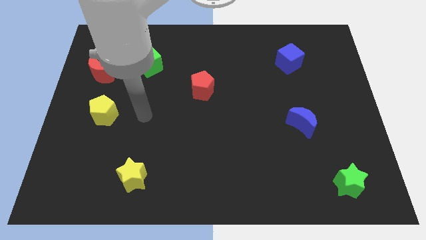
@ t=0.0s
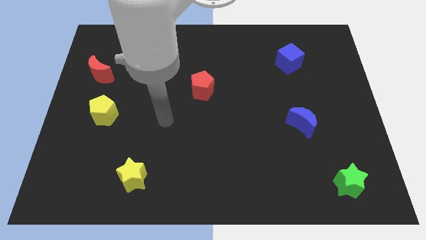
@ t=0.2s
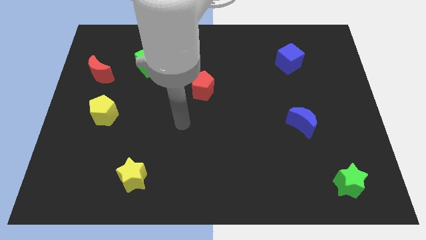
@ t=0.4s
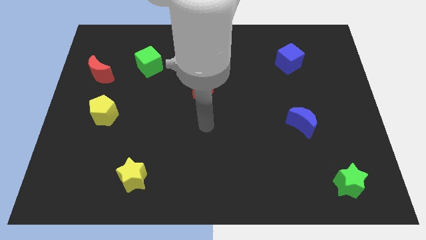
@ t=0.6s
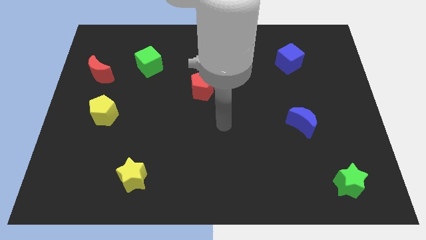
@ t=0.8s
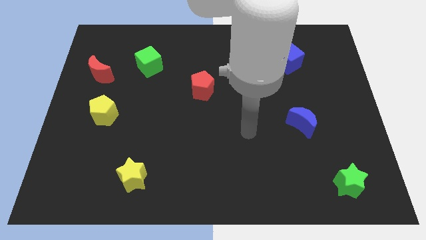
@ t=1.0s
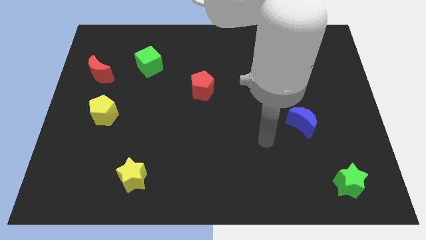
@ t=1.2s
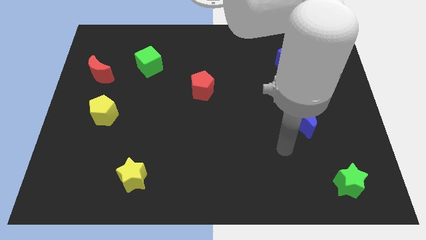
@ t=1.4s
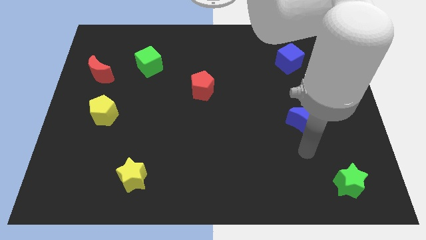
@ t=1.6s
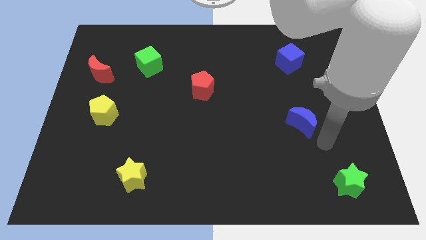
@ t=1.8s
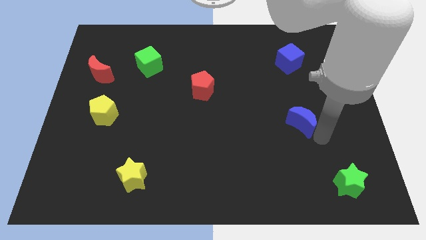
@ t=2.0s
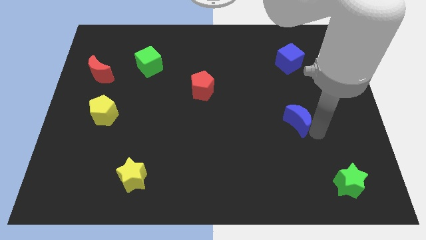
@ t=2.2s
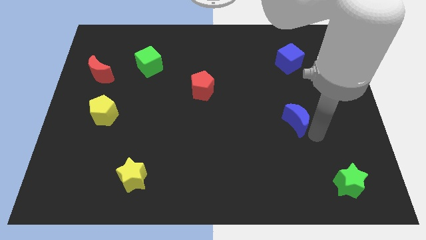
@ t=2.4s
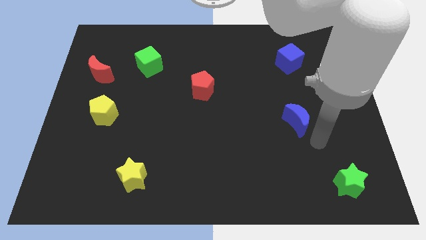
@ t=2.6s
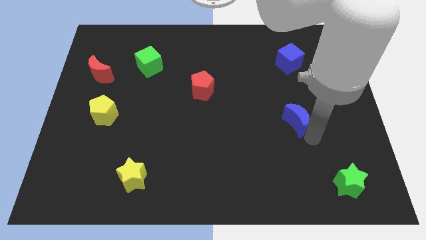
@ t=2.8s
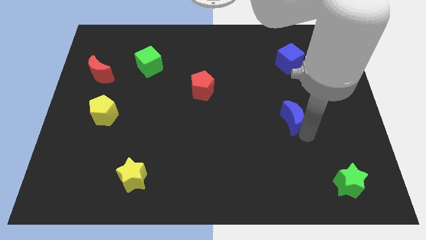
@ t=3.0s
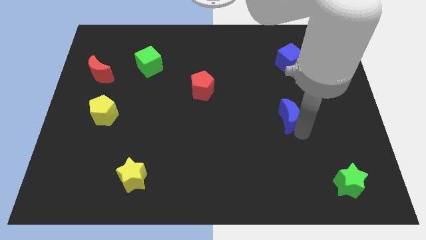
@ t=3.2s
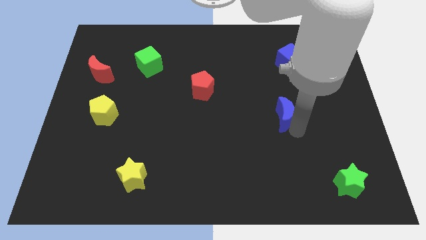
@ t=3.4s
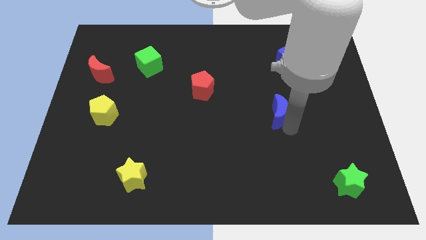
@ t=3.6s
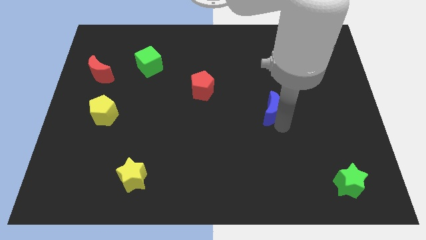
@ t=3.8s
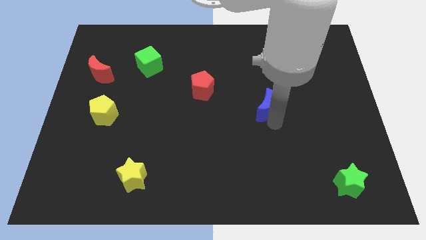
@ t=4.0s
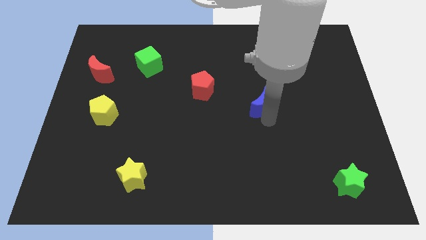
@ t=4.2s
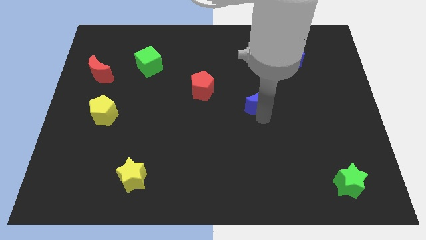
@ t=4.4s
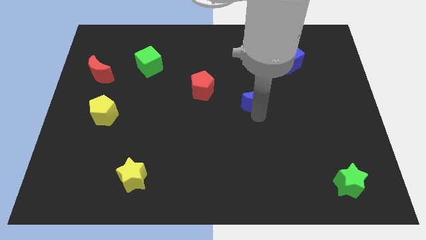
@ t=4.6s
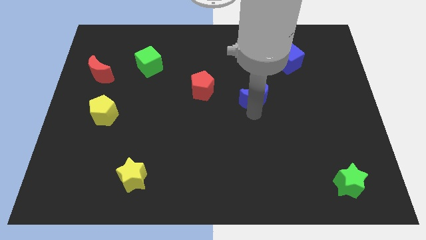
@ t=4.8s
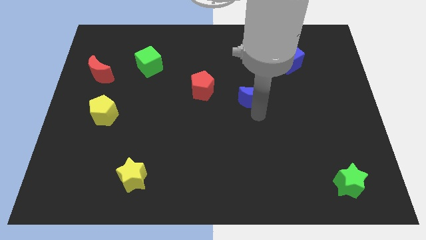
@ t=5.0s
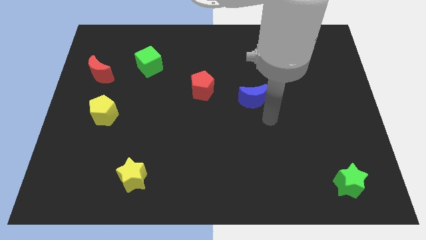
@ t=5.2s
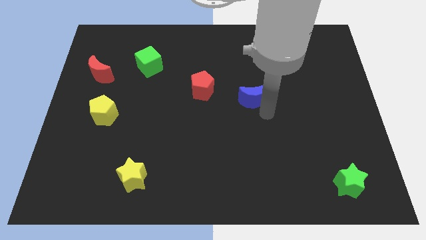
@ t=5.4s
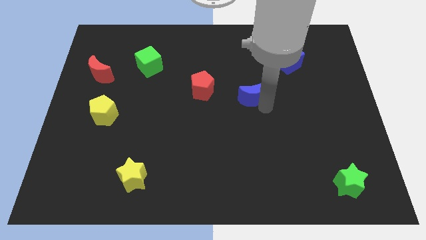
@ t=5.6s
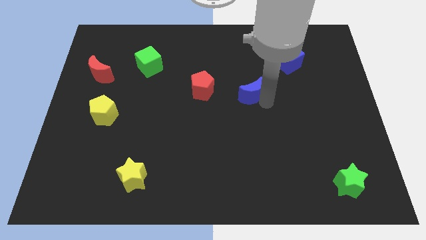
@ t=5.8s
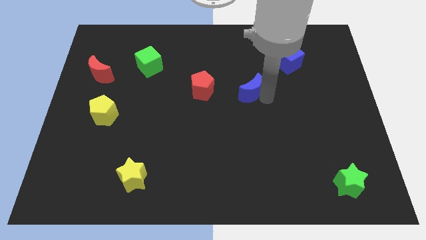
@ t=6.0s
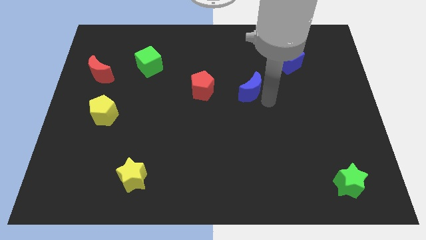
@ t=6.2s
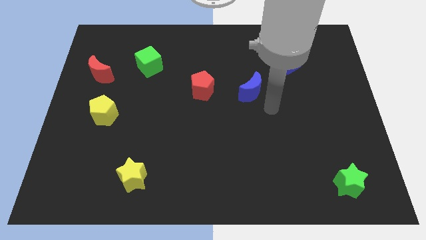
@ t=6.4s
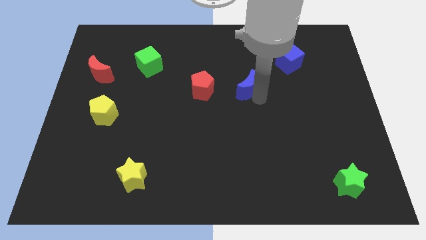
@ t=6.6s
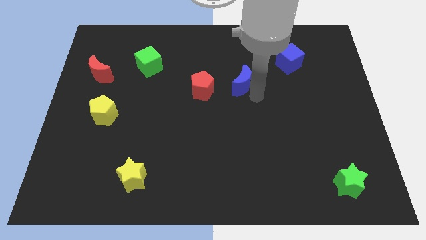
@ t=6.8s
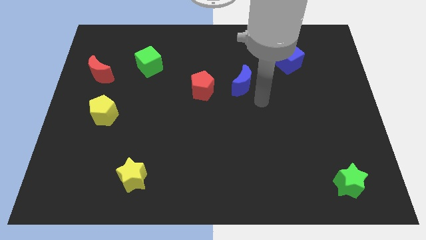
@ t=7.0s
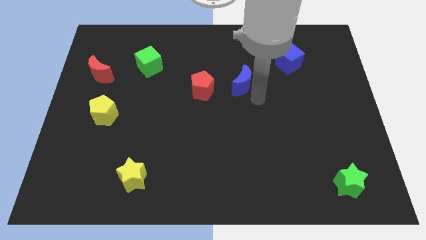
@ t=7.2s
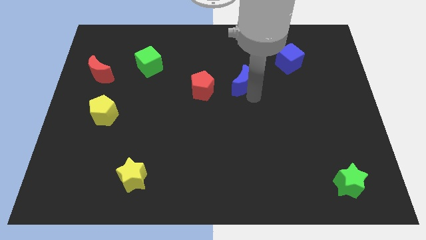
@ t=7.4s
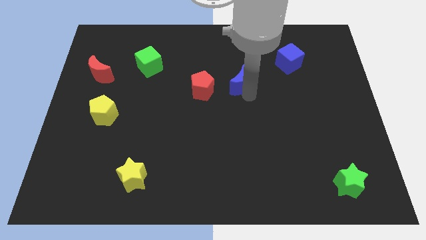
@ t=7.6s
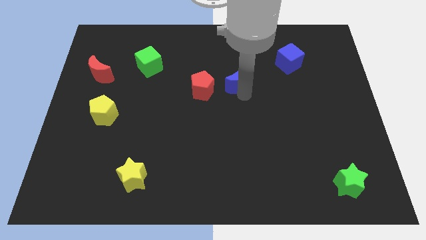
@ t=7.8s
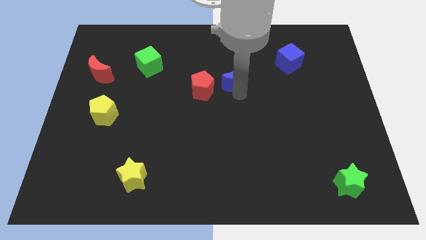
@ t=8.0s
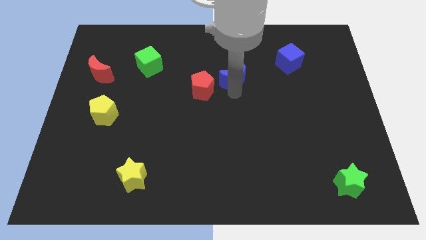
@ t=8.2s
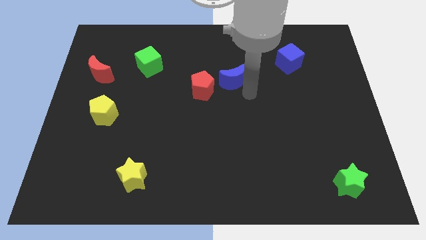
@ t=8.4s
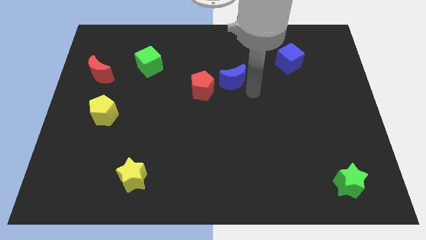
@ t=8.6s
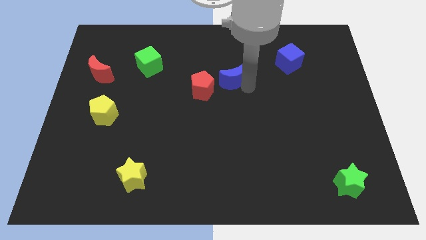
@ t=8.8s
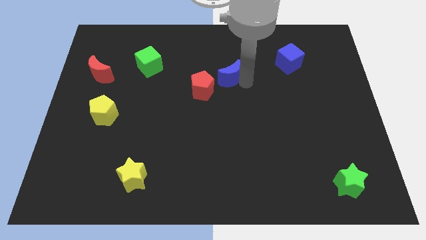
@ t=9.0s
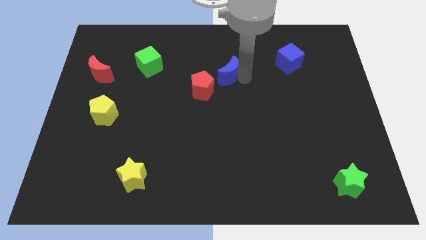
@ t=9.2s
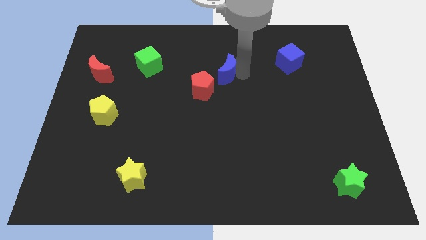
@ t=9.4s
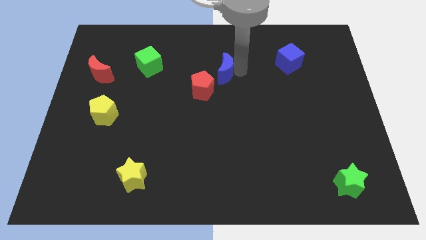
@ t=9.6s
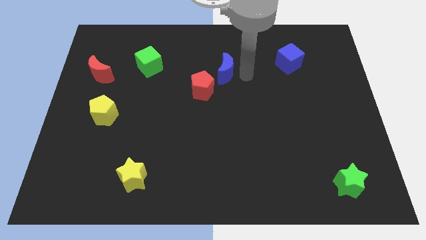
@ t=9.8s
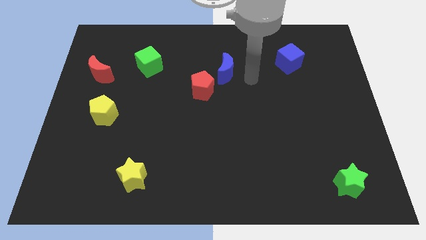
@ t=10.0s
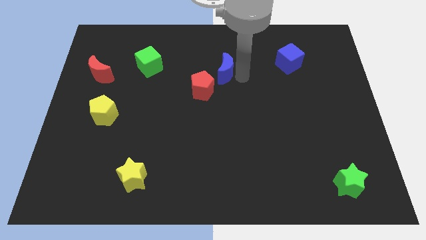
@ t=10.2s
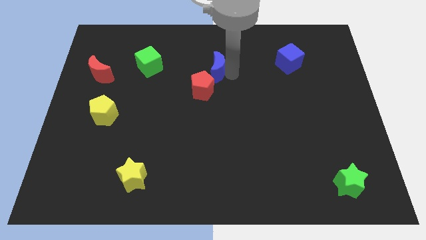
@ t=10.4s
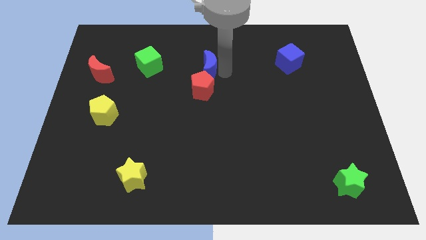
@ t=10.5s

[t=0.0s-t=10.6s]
push the blue moon to the right side of the green cube
